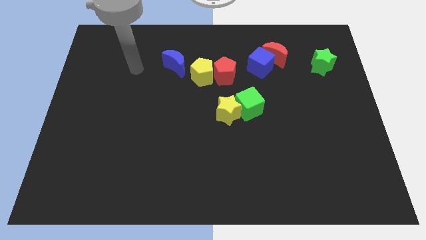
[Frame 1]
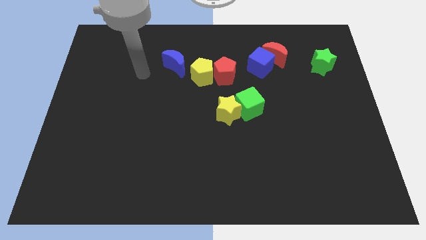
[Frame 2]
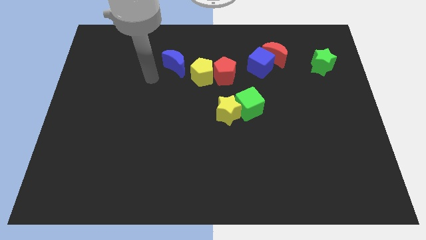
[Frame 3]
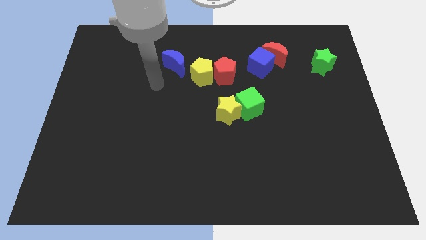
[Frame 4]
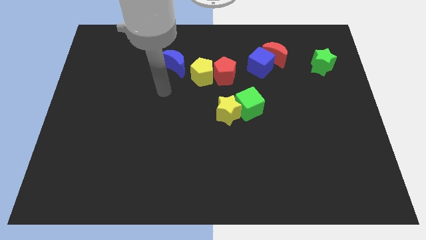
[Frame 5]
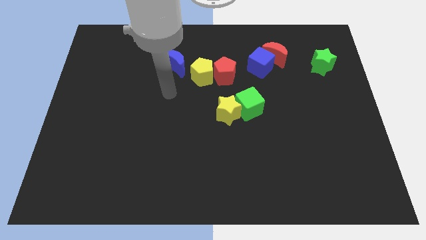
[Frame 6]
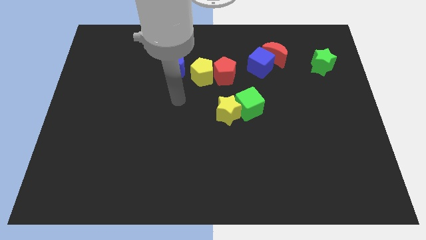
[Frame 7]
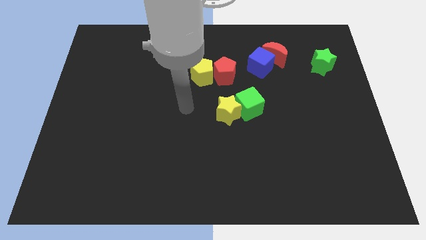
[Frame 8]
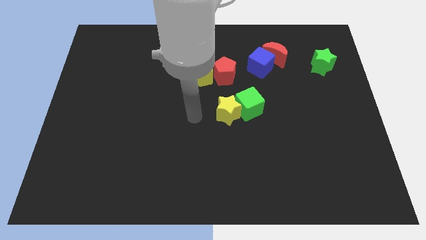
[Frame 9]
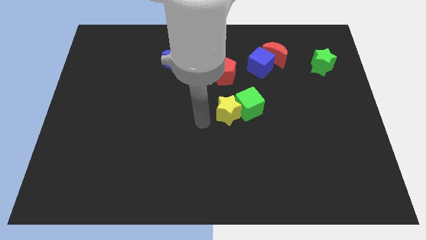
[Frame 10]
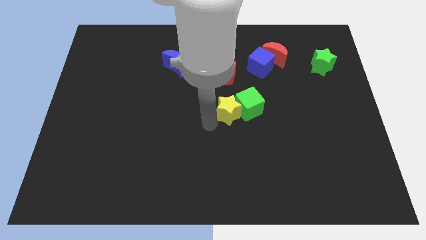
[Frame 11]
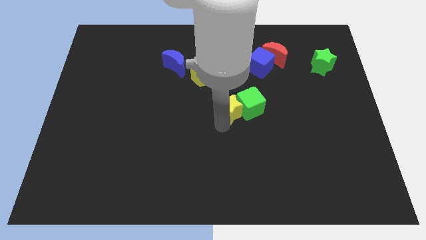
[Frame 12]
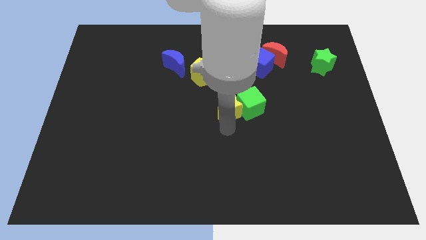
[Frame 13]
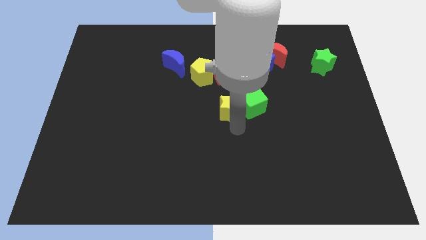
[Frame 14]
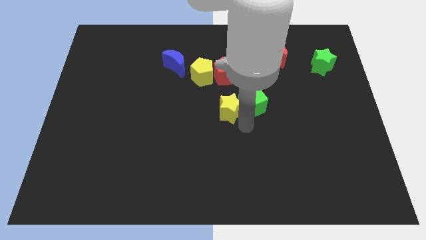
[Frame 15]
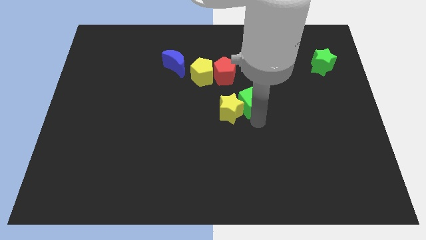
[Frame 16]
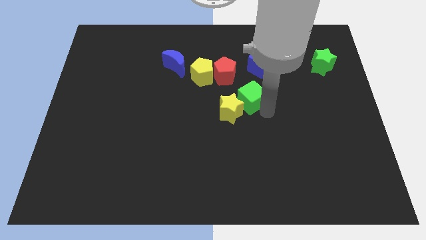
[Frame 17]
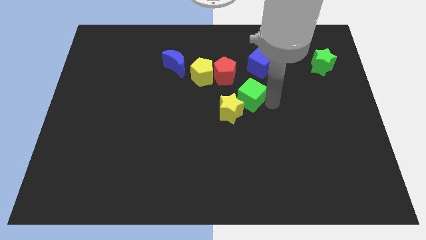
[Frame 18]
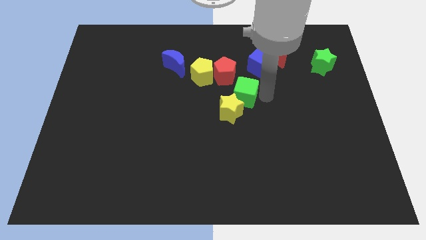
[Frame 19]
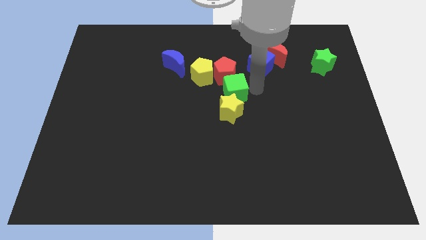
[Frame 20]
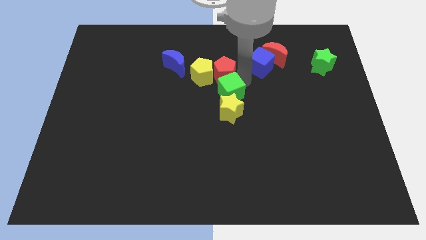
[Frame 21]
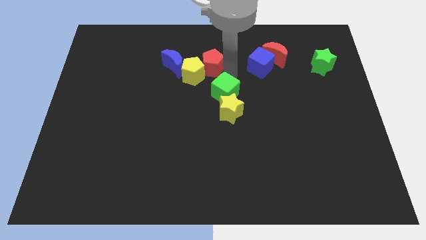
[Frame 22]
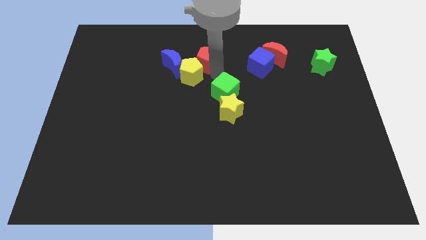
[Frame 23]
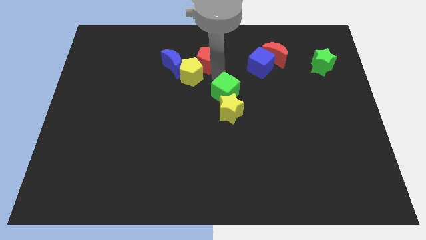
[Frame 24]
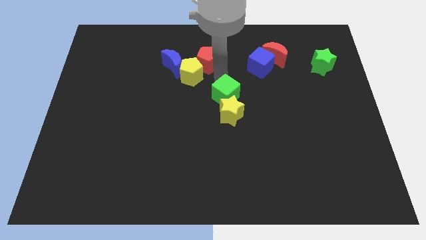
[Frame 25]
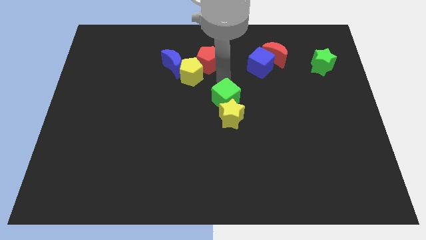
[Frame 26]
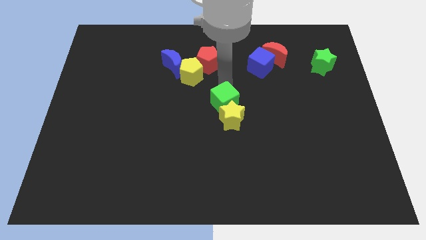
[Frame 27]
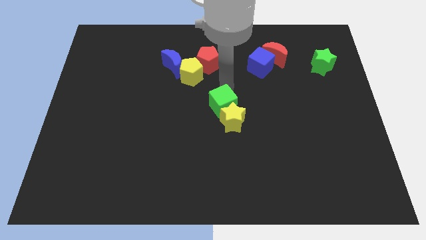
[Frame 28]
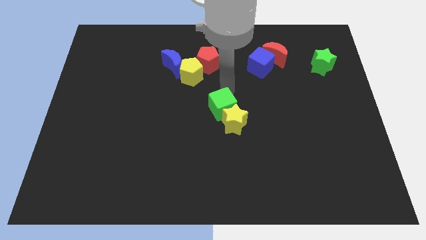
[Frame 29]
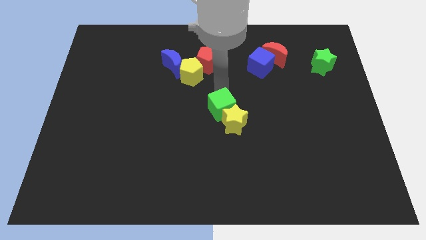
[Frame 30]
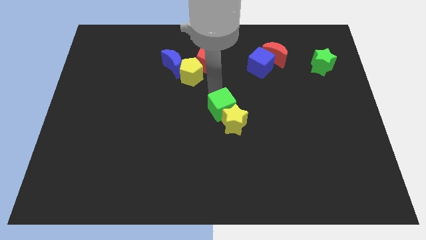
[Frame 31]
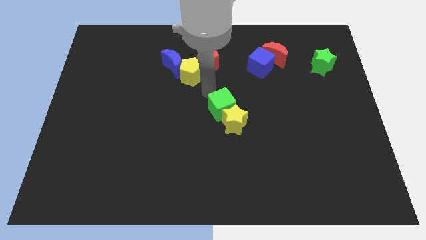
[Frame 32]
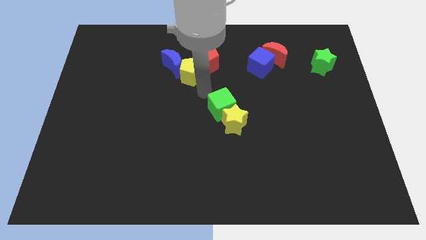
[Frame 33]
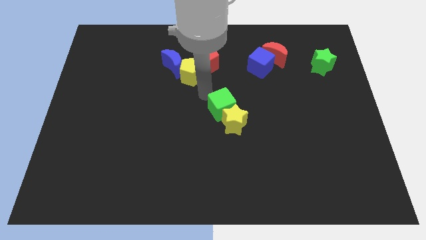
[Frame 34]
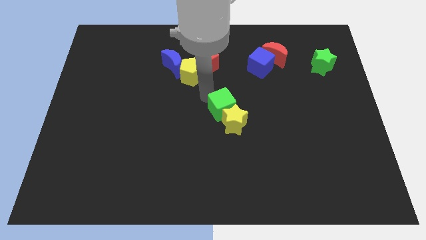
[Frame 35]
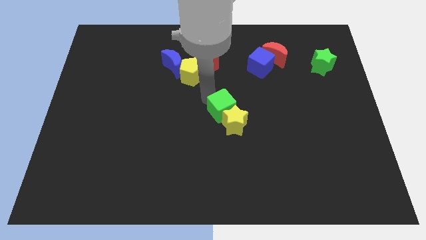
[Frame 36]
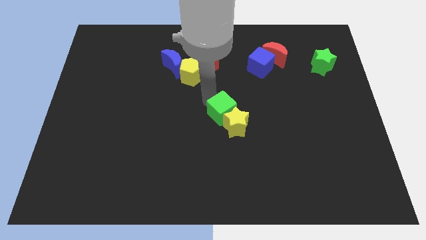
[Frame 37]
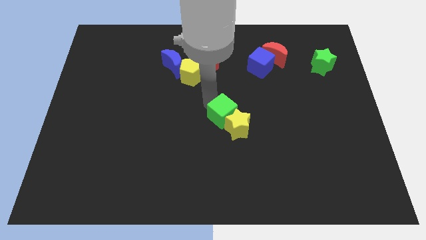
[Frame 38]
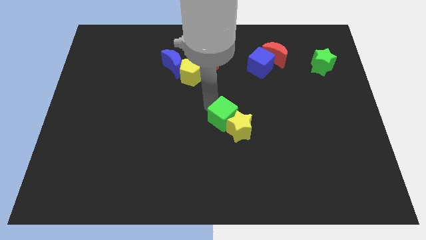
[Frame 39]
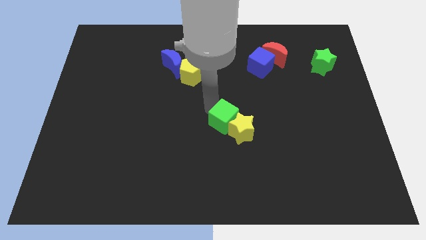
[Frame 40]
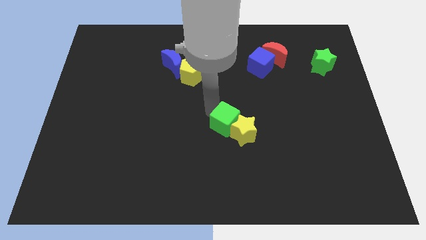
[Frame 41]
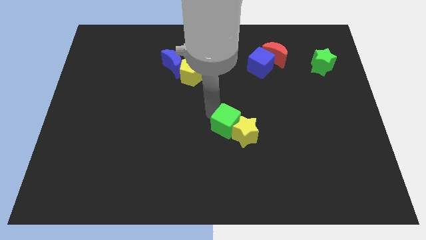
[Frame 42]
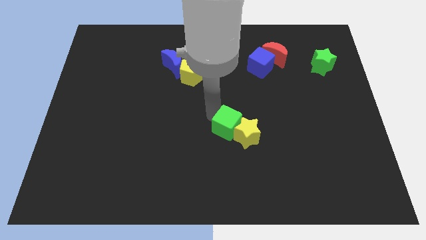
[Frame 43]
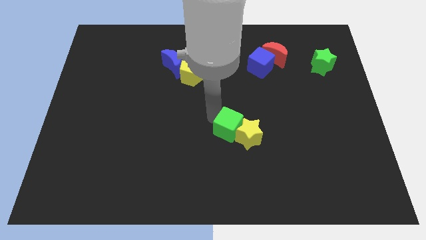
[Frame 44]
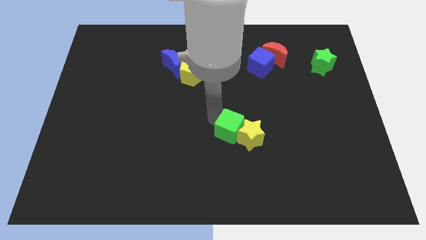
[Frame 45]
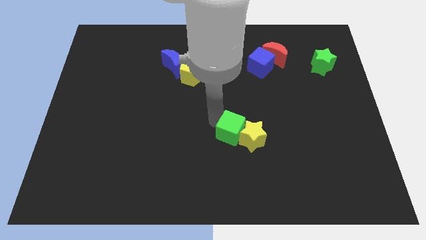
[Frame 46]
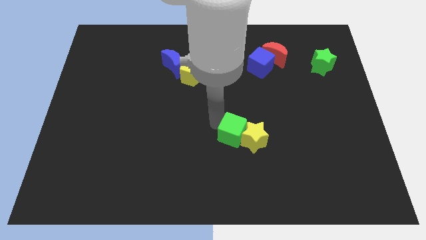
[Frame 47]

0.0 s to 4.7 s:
slide the green cube a little downwards

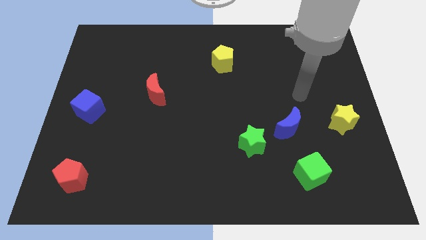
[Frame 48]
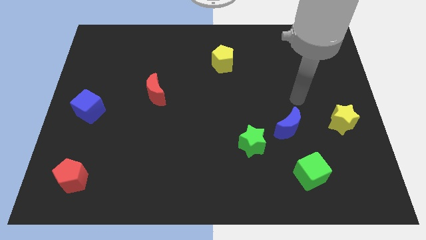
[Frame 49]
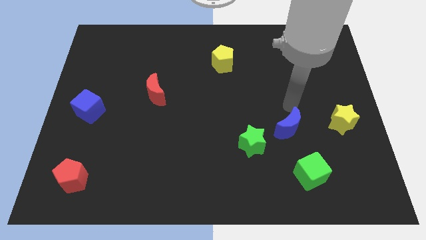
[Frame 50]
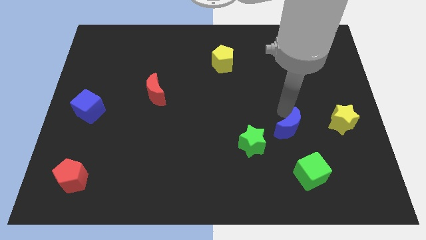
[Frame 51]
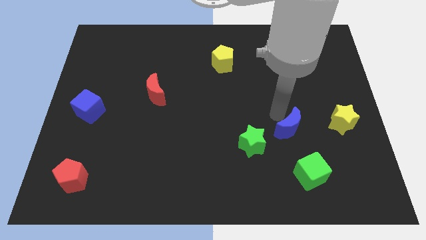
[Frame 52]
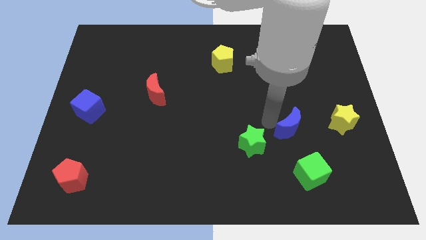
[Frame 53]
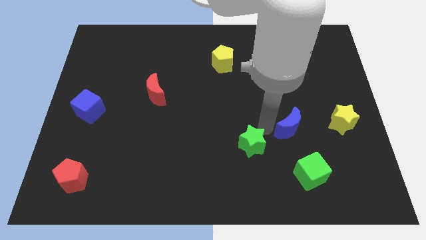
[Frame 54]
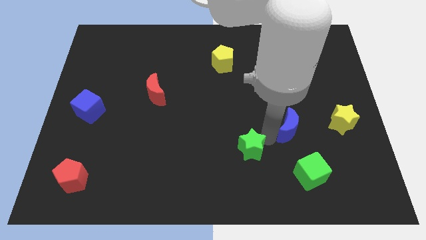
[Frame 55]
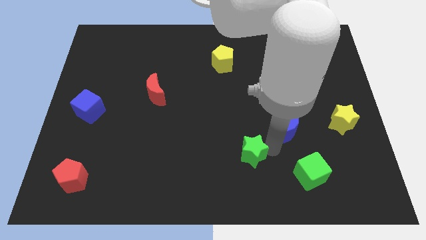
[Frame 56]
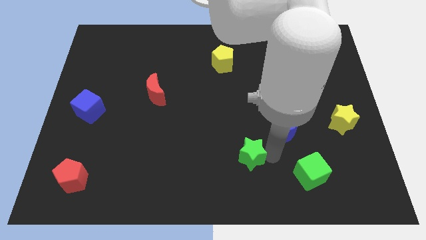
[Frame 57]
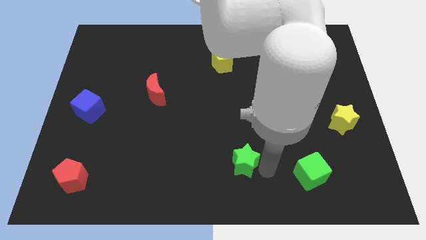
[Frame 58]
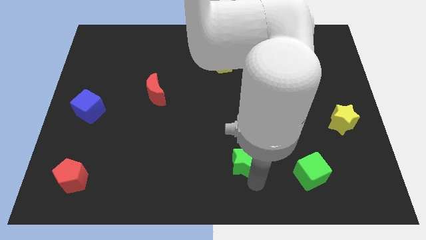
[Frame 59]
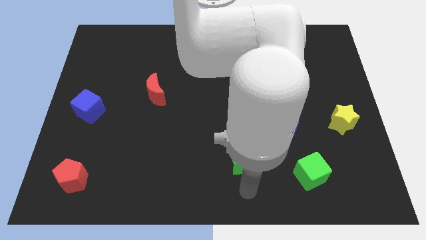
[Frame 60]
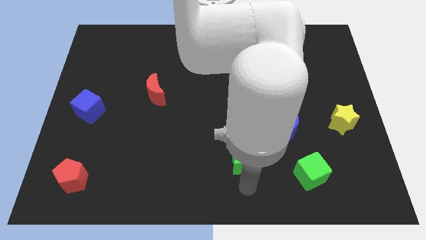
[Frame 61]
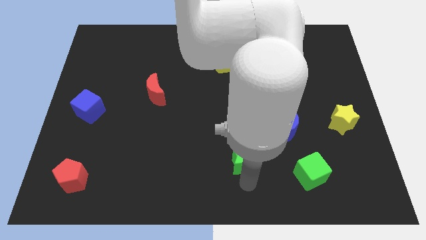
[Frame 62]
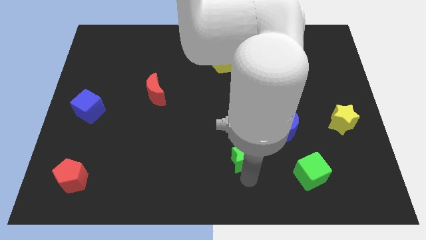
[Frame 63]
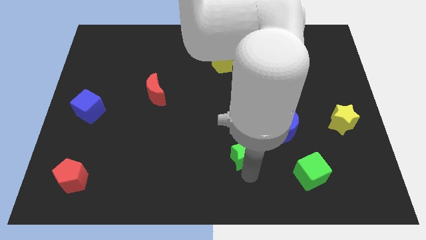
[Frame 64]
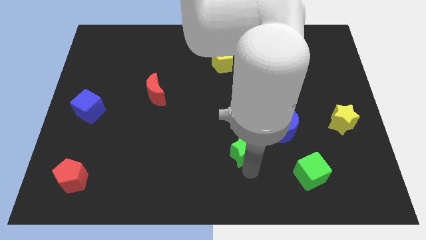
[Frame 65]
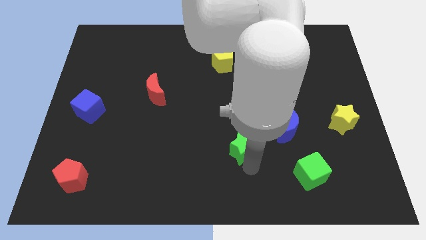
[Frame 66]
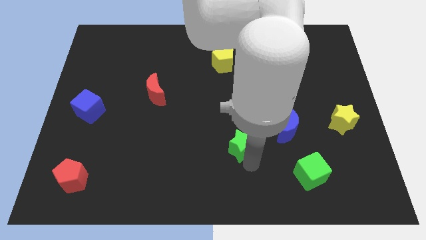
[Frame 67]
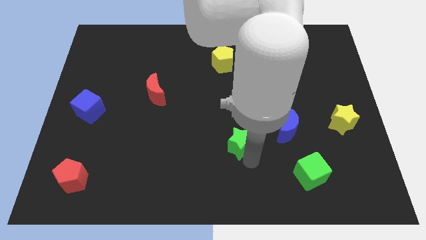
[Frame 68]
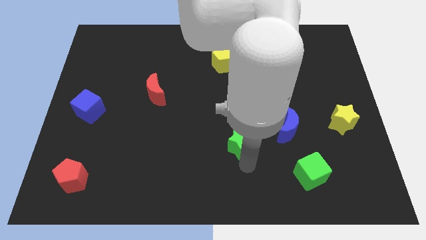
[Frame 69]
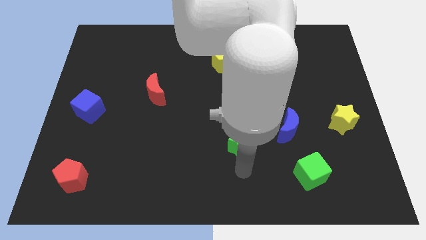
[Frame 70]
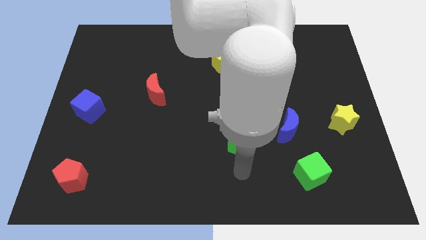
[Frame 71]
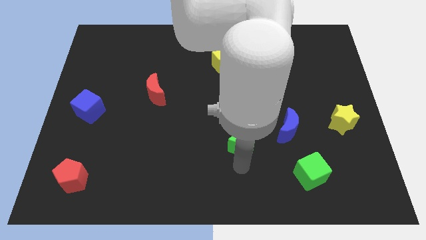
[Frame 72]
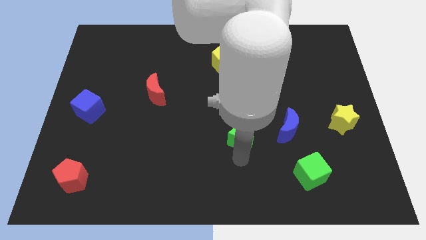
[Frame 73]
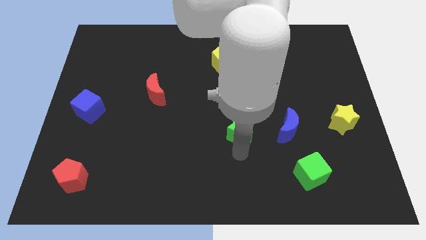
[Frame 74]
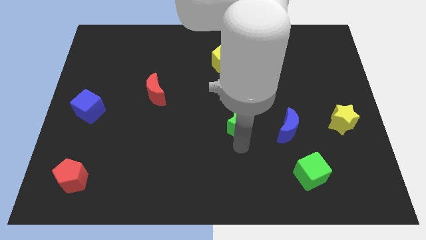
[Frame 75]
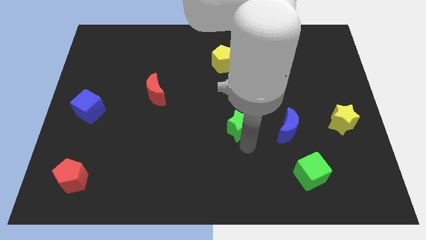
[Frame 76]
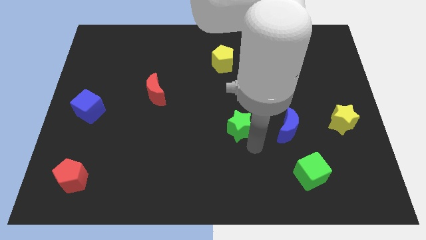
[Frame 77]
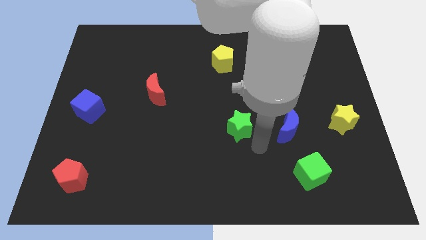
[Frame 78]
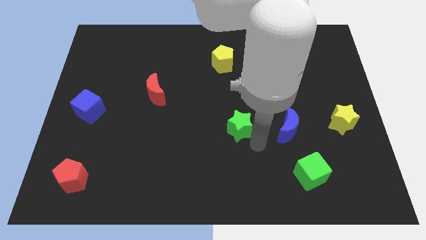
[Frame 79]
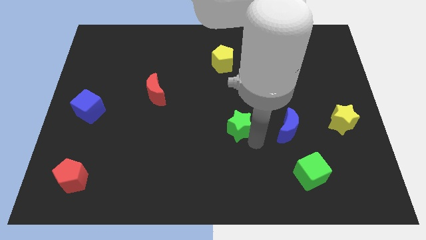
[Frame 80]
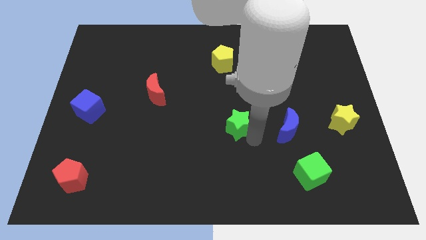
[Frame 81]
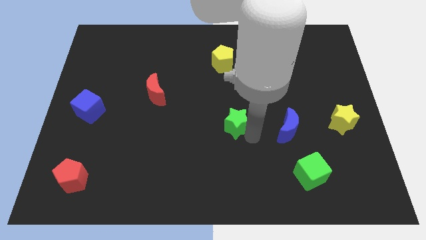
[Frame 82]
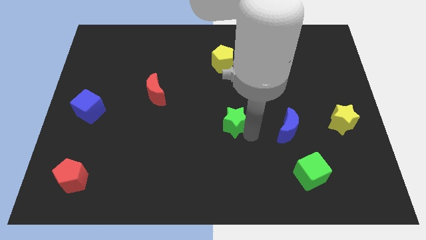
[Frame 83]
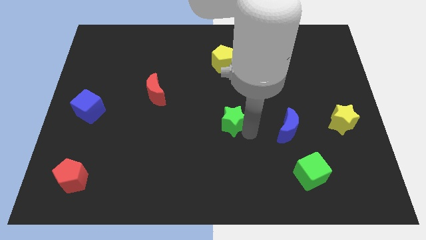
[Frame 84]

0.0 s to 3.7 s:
slightly push the green star up and to the left diagonally
